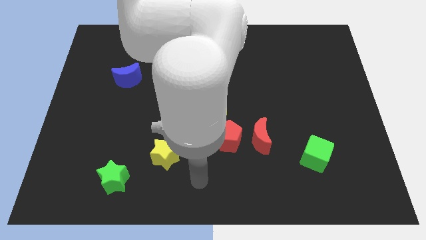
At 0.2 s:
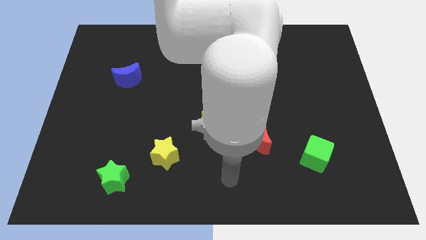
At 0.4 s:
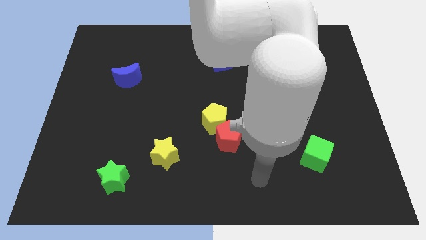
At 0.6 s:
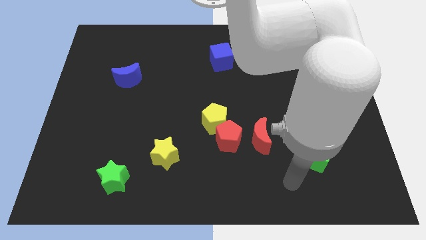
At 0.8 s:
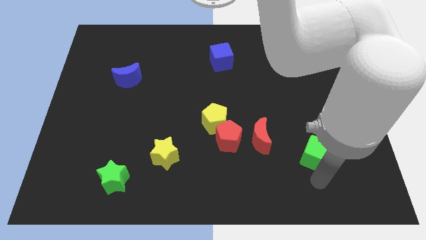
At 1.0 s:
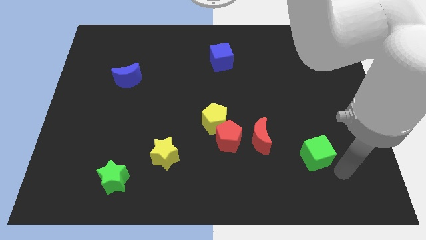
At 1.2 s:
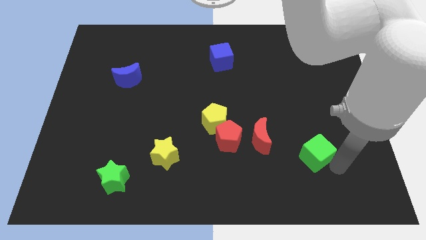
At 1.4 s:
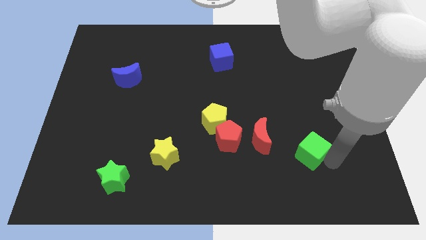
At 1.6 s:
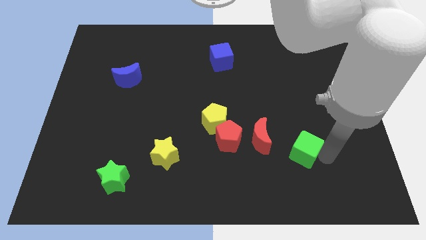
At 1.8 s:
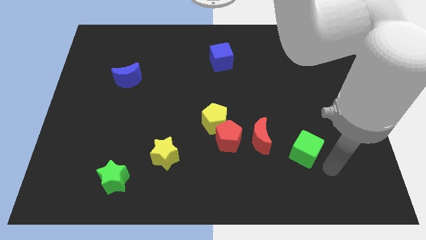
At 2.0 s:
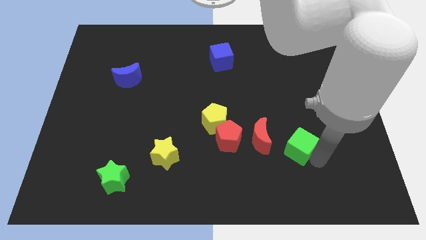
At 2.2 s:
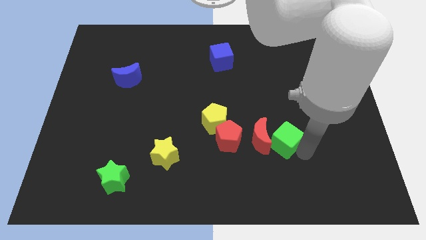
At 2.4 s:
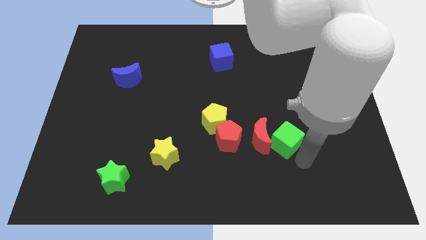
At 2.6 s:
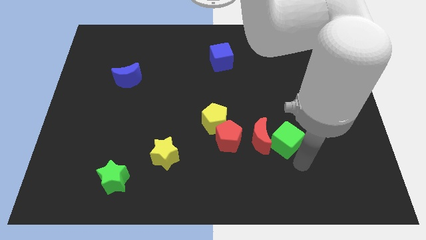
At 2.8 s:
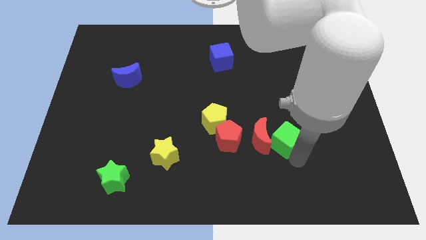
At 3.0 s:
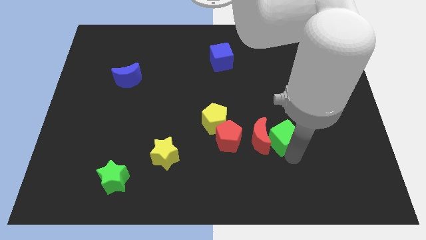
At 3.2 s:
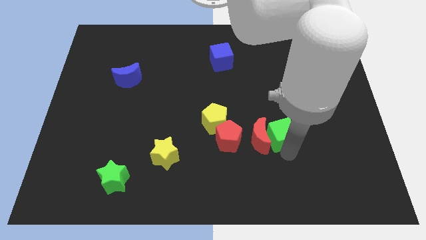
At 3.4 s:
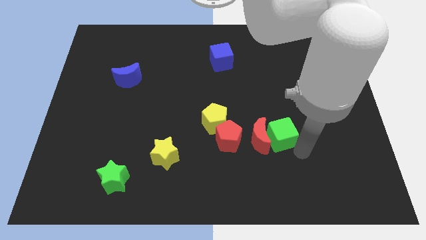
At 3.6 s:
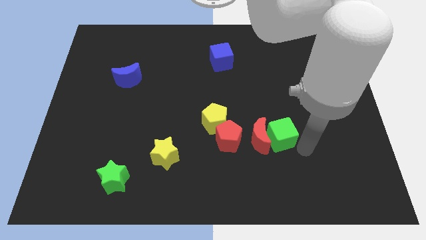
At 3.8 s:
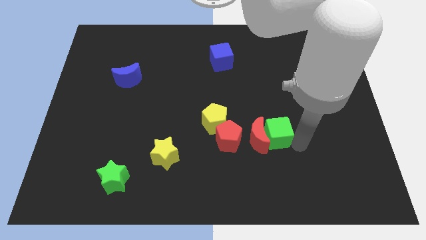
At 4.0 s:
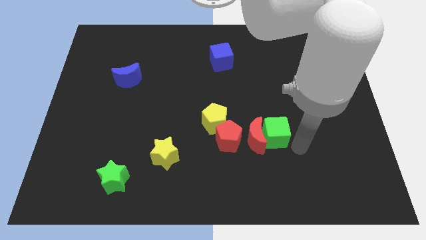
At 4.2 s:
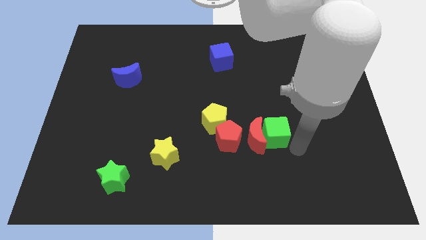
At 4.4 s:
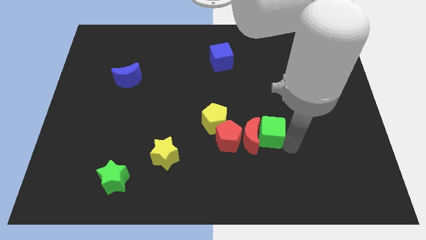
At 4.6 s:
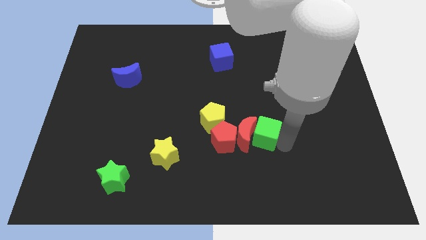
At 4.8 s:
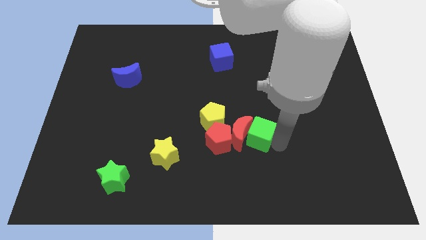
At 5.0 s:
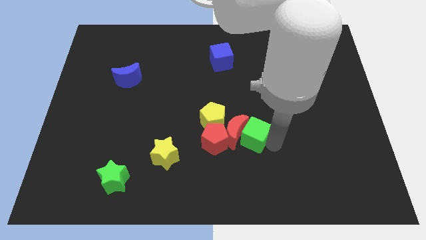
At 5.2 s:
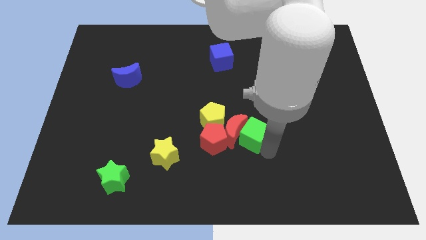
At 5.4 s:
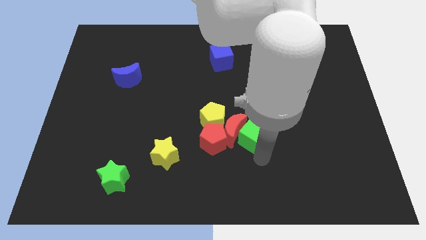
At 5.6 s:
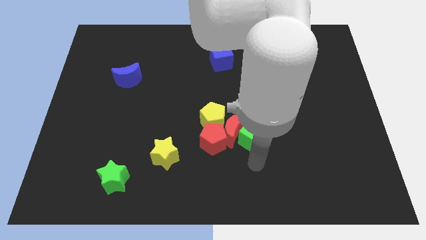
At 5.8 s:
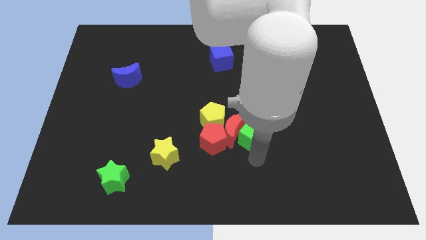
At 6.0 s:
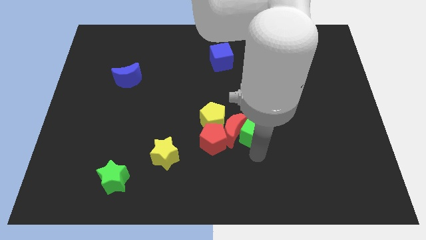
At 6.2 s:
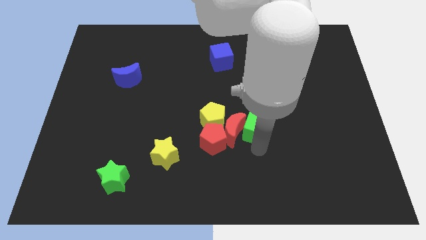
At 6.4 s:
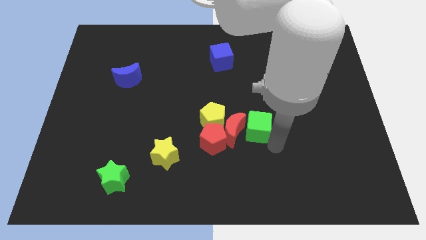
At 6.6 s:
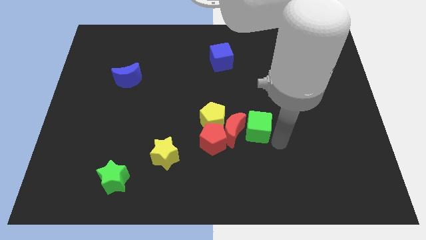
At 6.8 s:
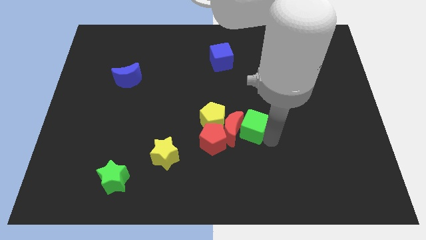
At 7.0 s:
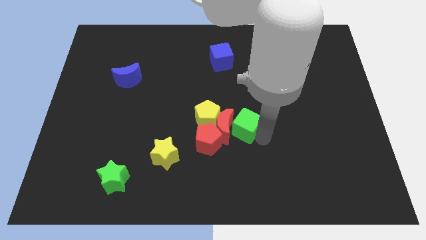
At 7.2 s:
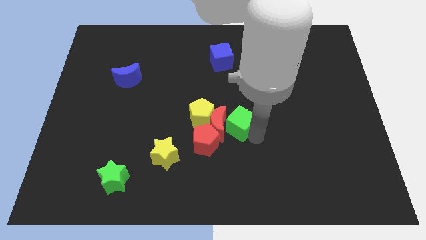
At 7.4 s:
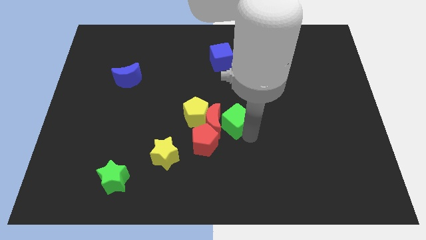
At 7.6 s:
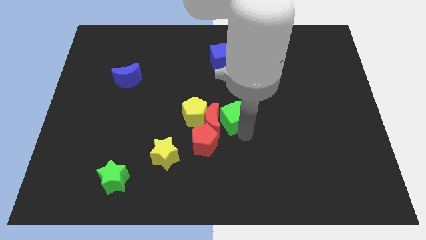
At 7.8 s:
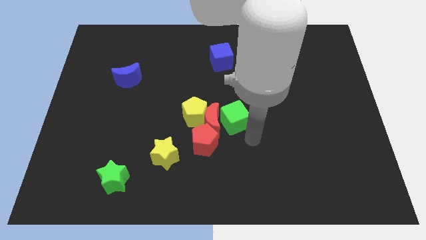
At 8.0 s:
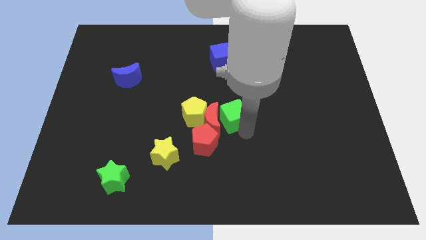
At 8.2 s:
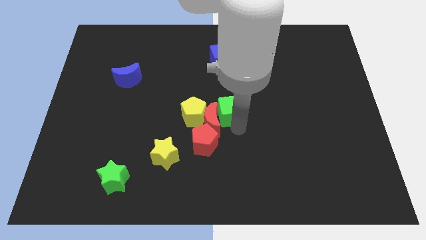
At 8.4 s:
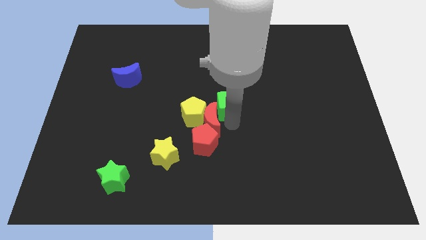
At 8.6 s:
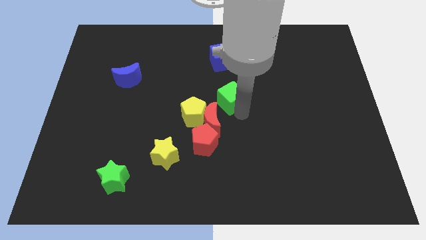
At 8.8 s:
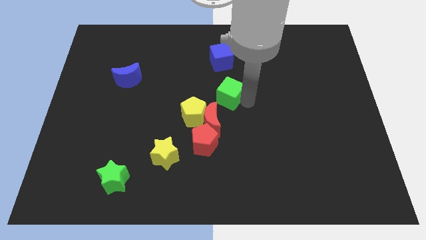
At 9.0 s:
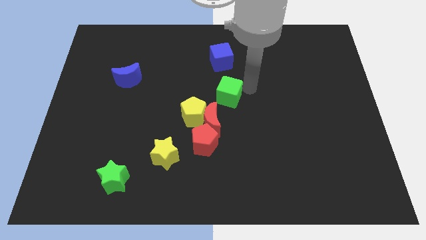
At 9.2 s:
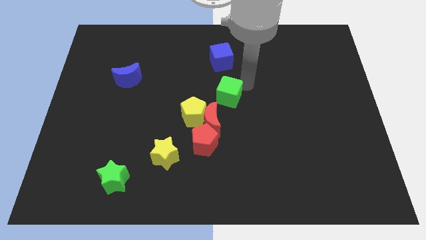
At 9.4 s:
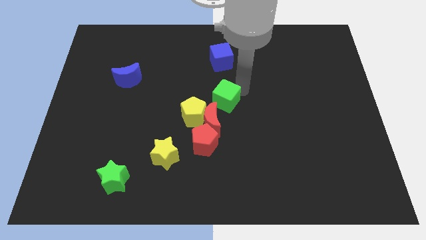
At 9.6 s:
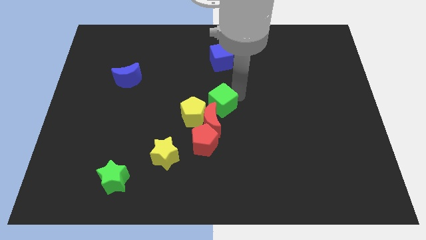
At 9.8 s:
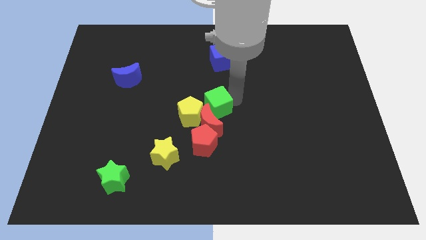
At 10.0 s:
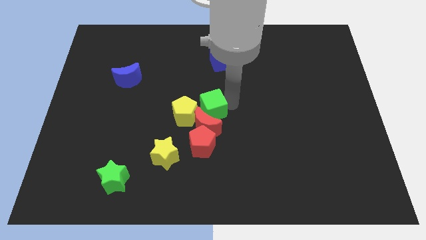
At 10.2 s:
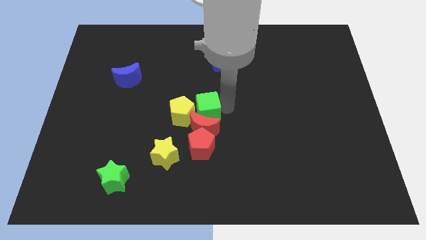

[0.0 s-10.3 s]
push the green cube close to the yellow pentagon
